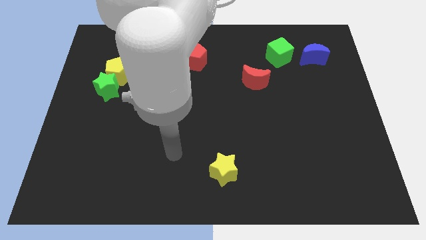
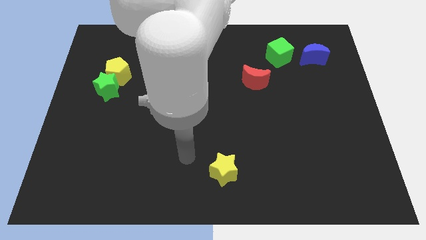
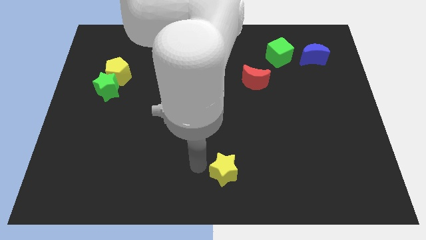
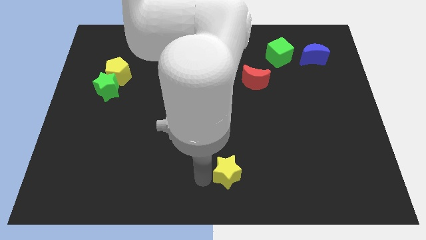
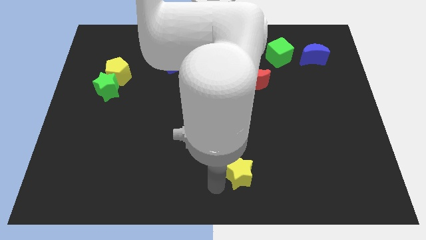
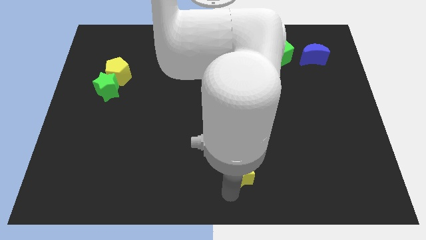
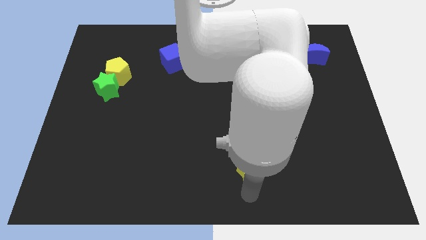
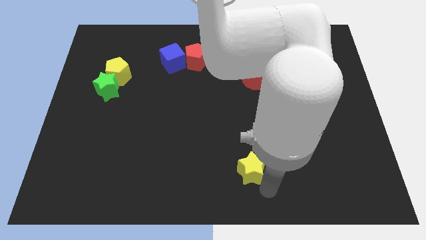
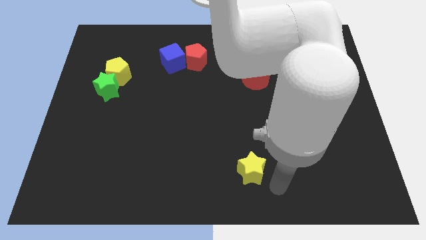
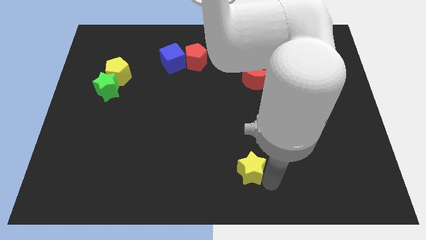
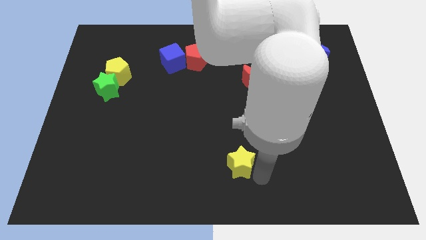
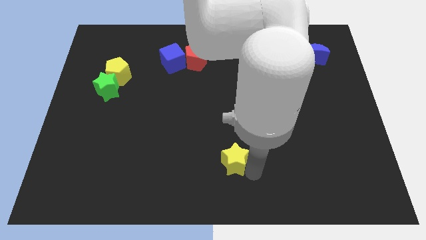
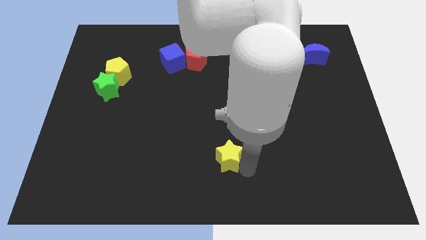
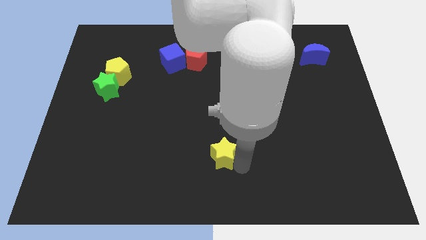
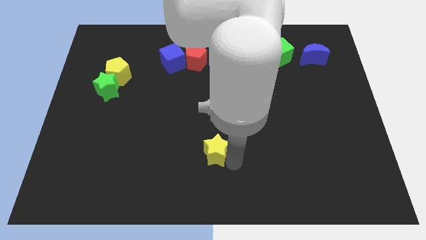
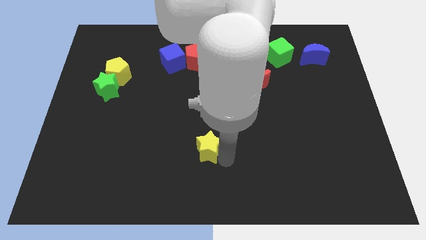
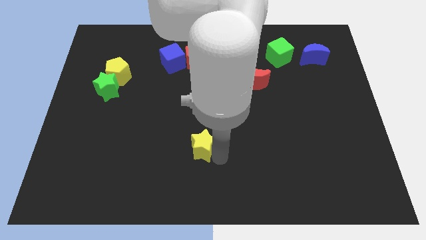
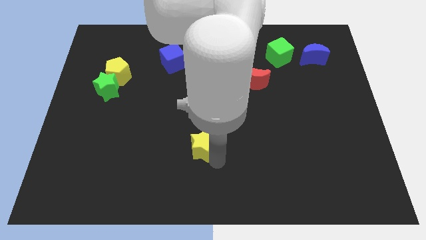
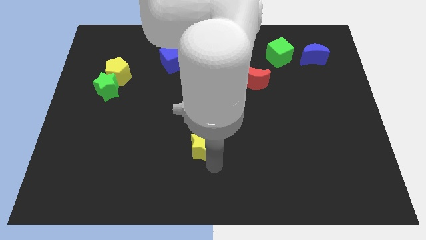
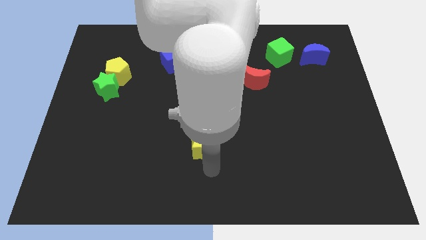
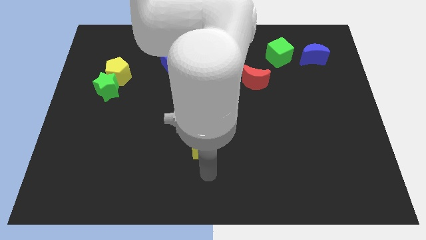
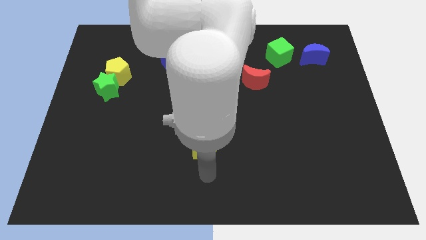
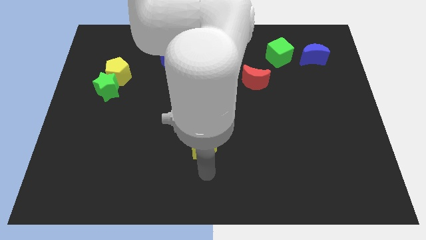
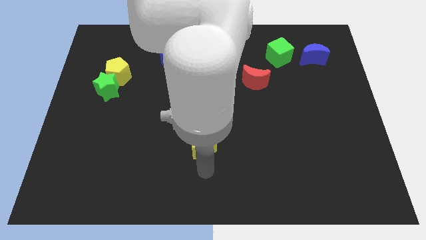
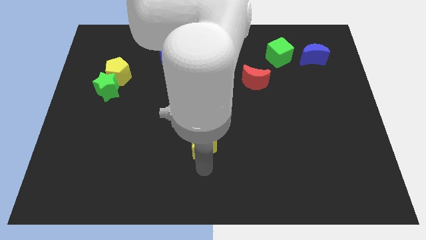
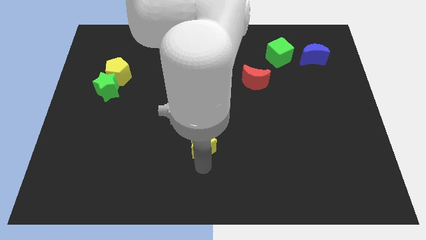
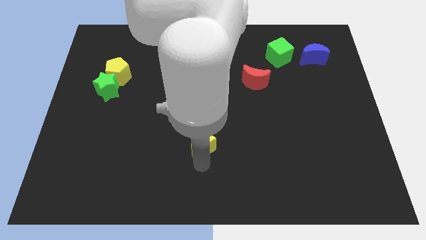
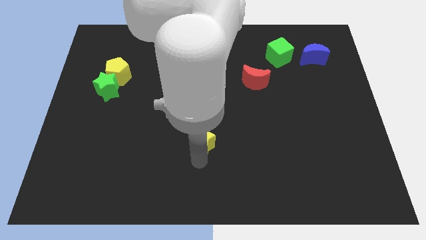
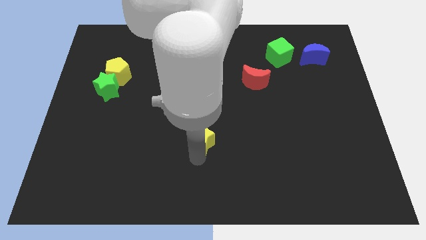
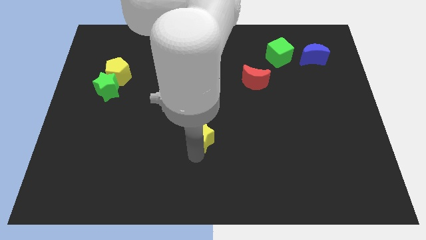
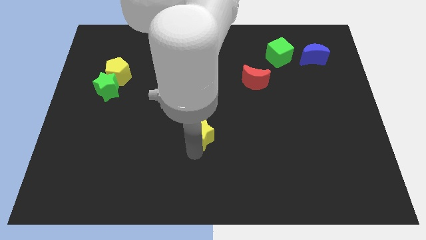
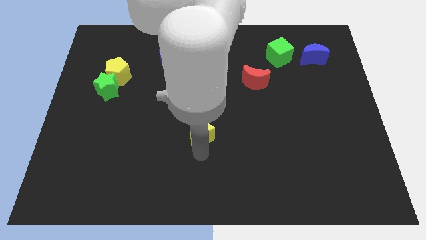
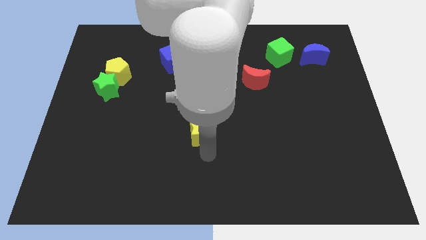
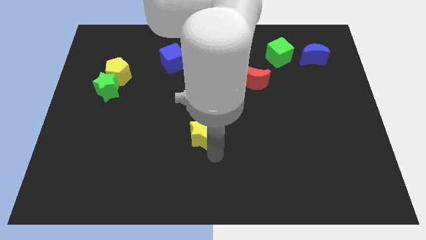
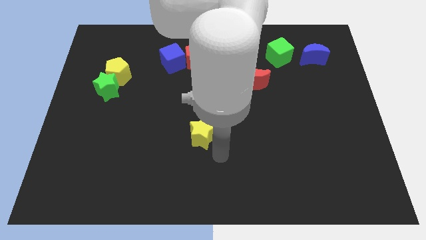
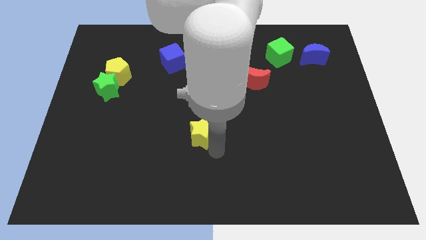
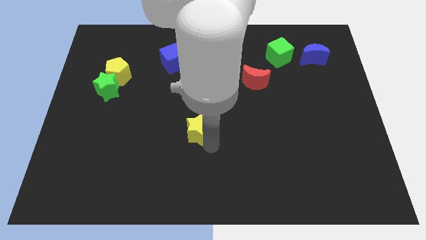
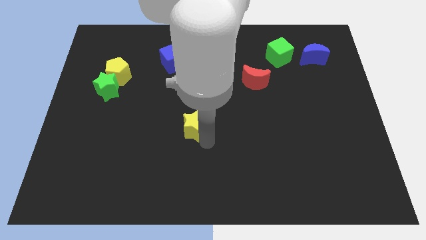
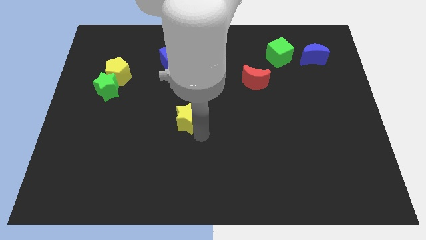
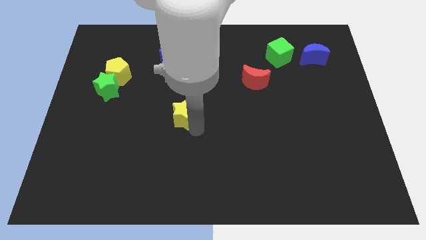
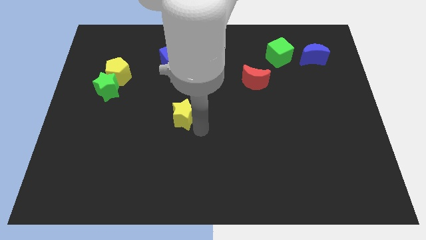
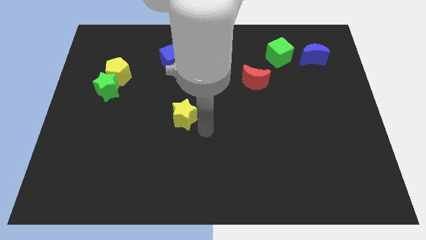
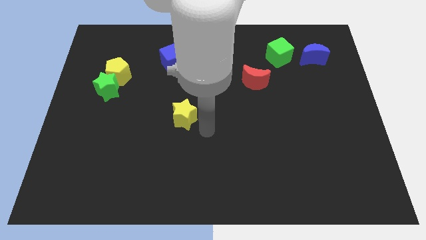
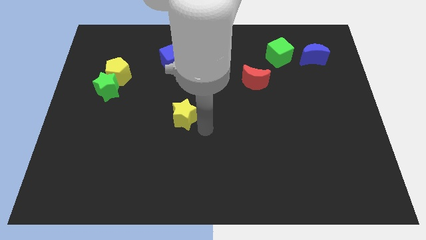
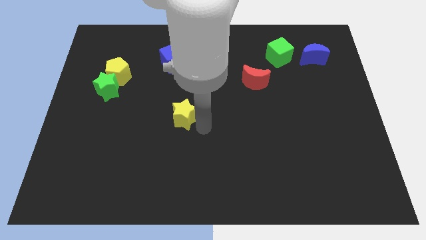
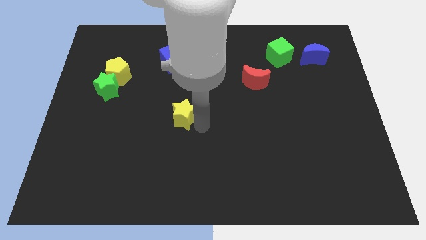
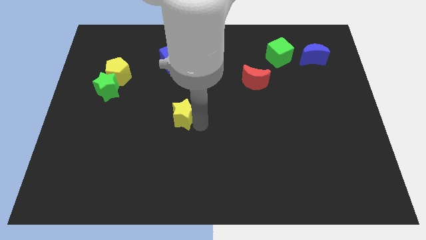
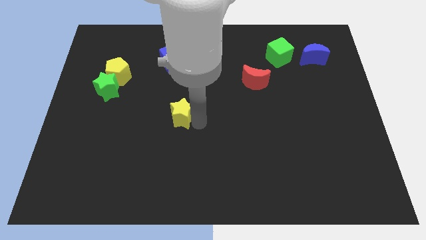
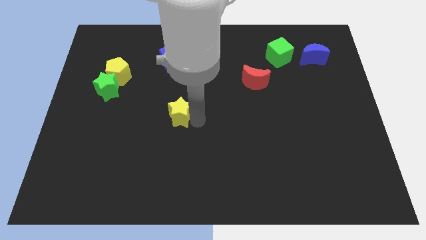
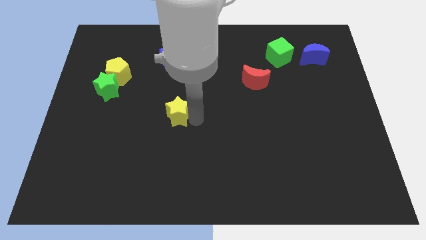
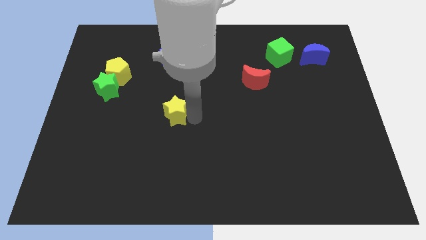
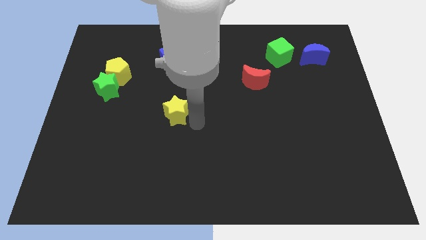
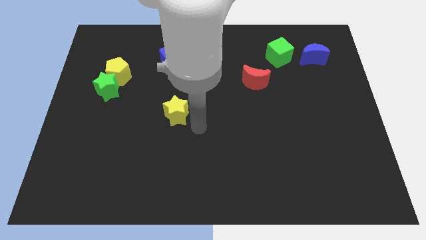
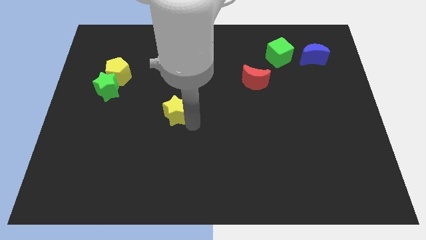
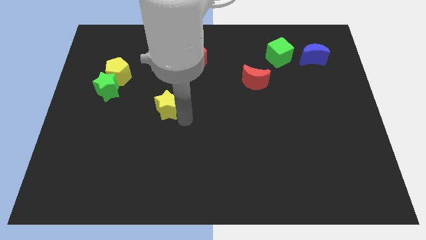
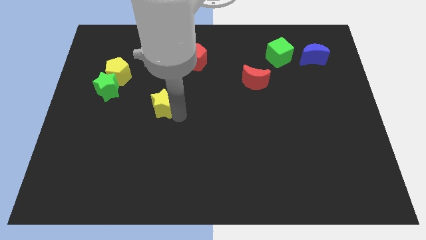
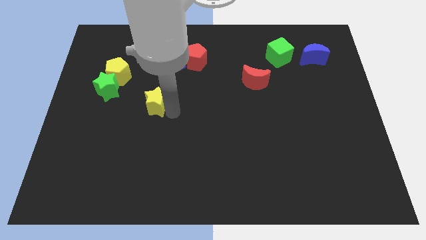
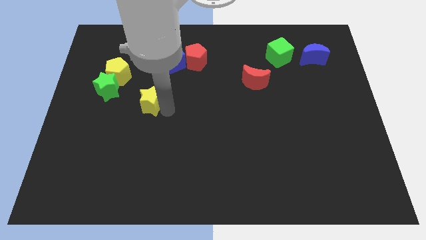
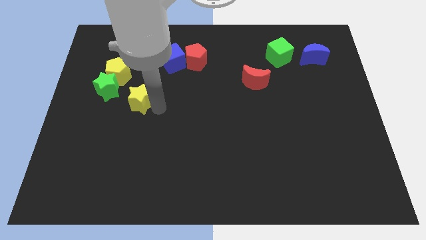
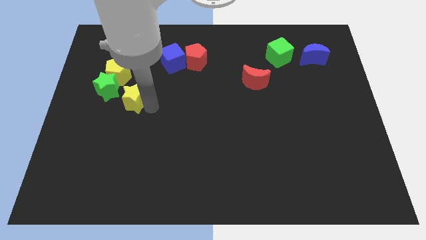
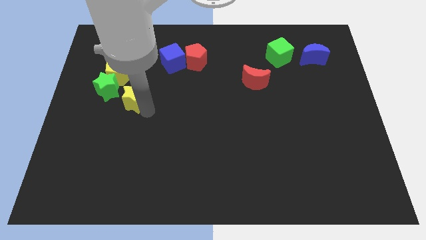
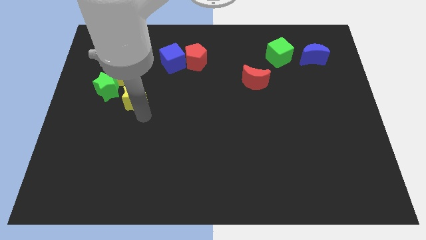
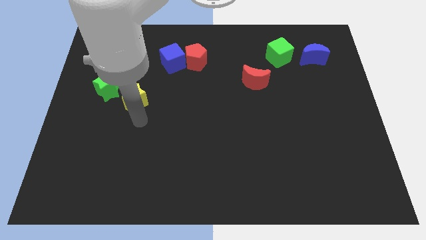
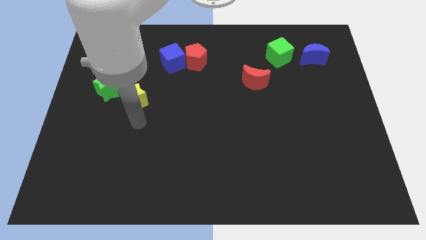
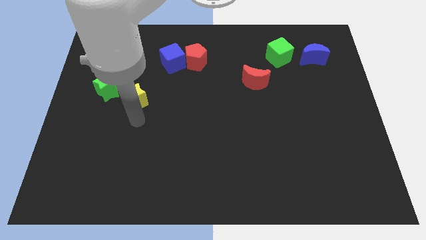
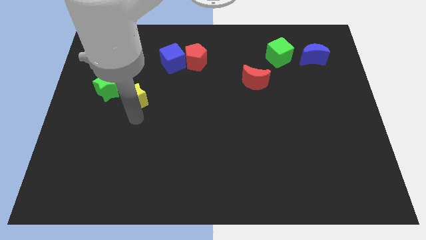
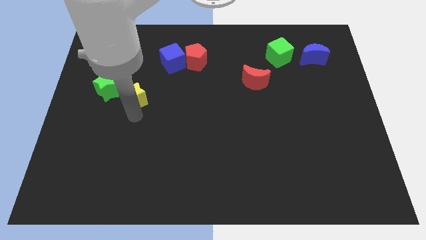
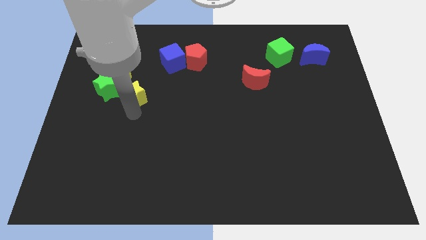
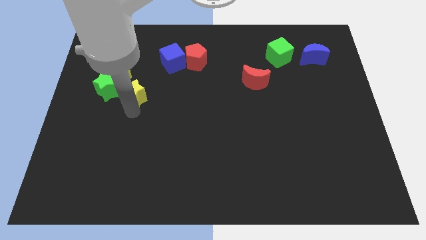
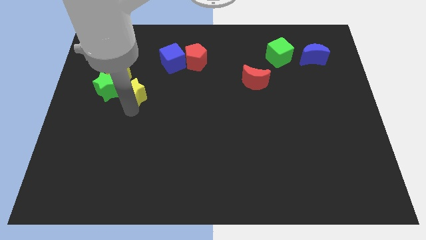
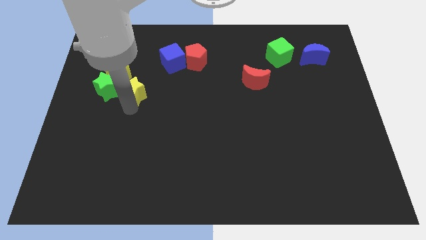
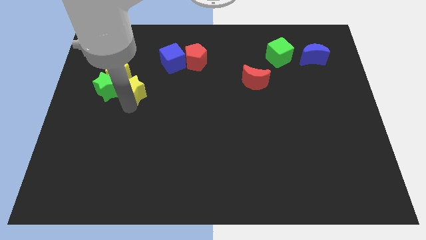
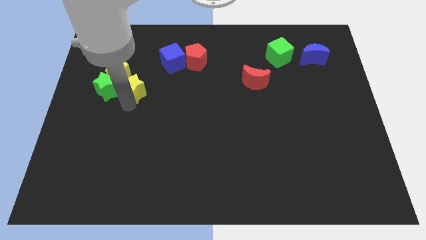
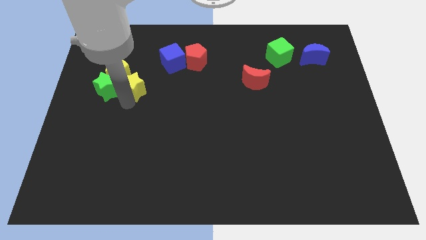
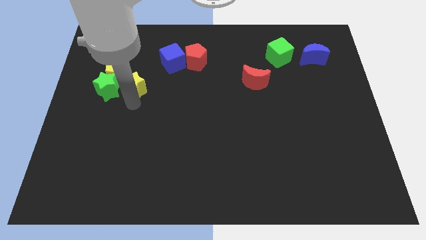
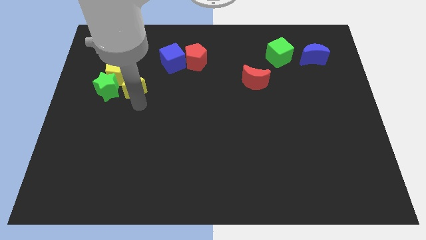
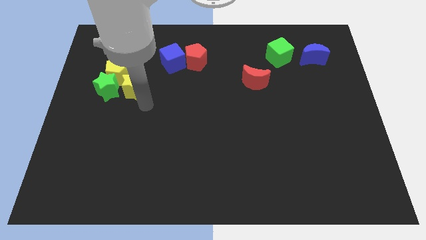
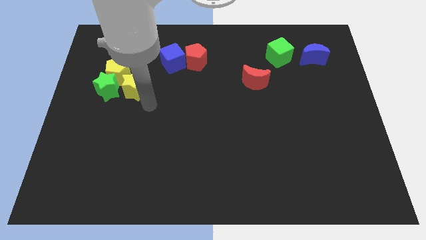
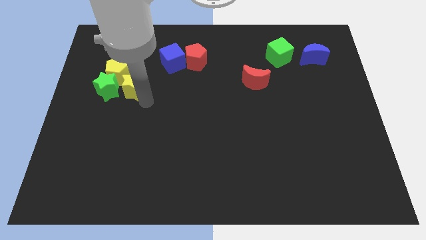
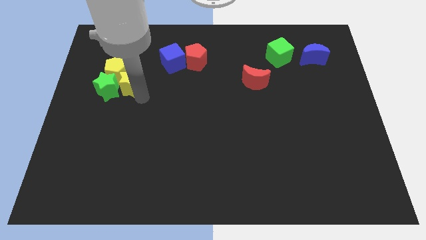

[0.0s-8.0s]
move the yellow star towards the yellow pentagon

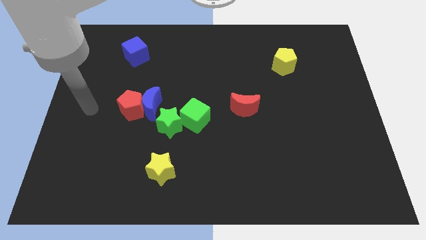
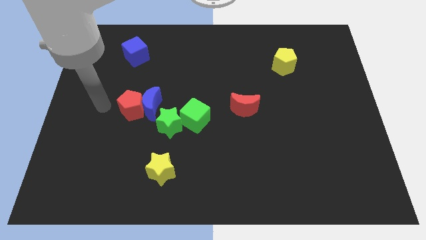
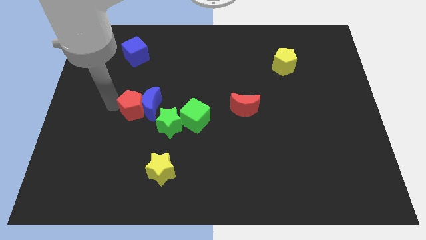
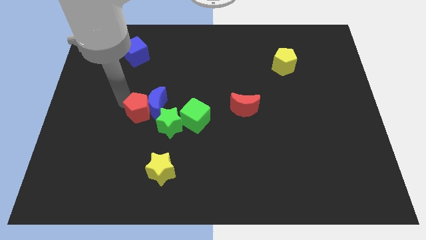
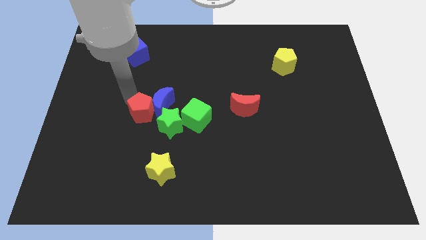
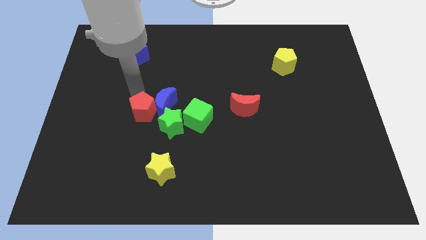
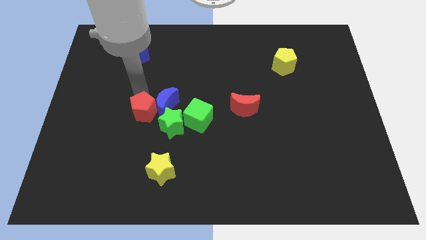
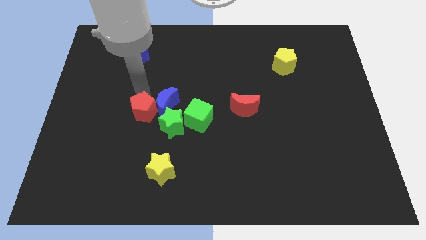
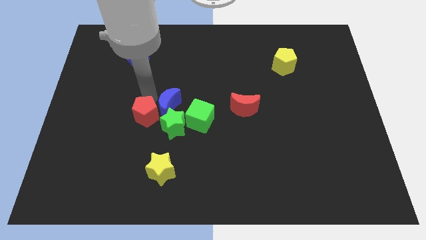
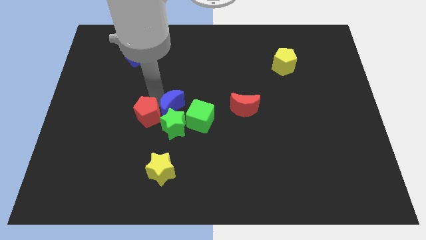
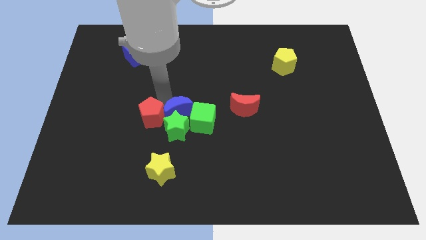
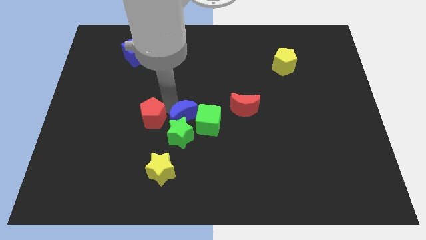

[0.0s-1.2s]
put the blue moon towards the green cube
